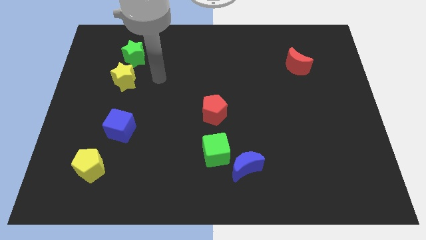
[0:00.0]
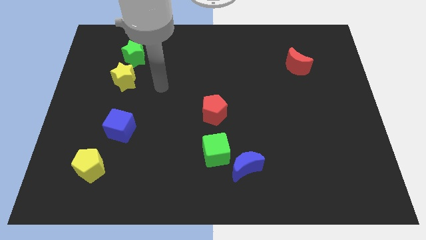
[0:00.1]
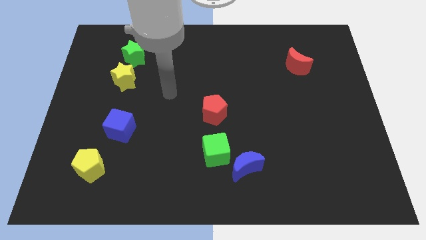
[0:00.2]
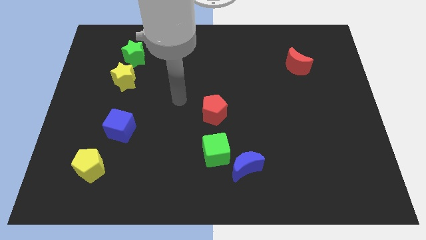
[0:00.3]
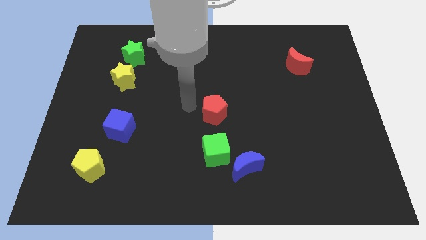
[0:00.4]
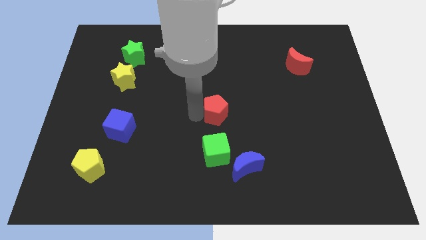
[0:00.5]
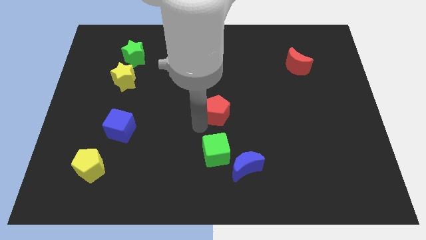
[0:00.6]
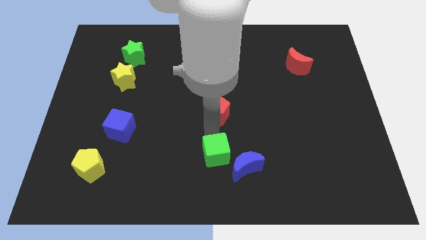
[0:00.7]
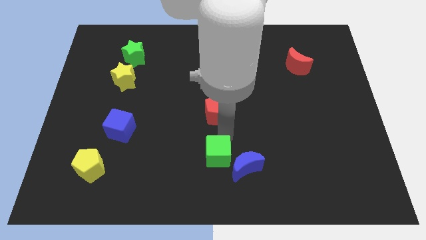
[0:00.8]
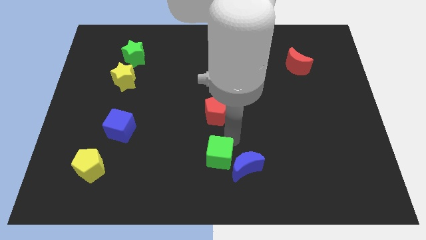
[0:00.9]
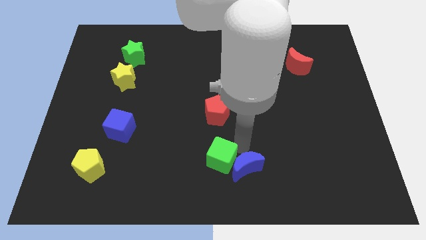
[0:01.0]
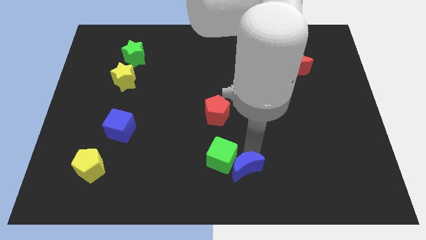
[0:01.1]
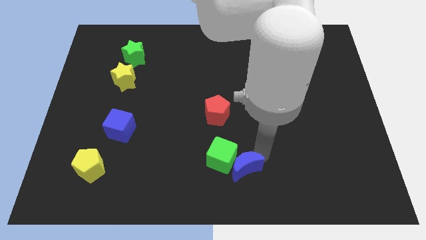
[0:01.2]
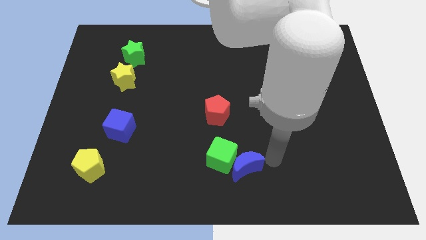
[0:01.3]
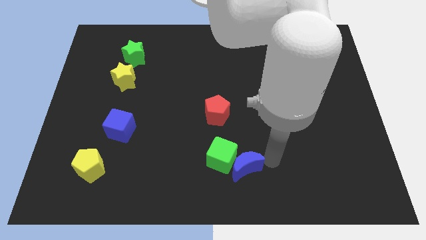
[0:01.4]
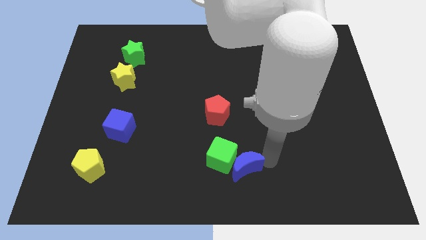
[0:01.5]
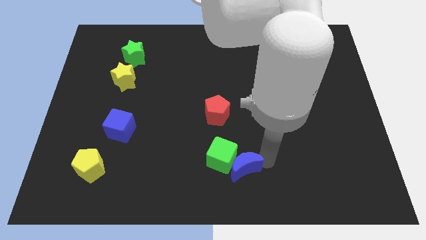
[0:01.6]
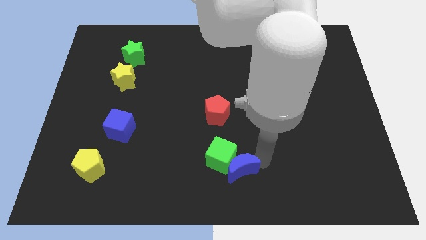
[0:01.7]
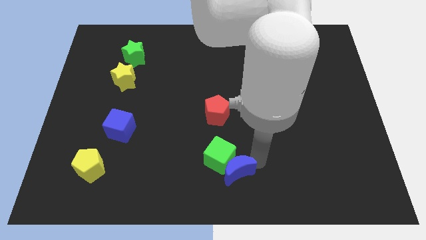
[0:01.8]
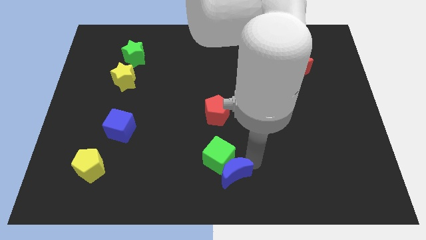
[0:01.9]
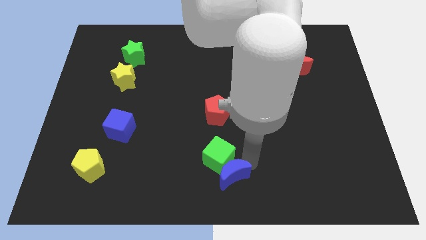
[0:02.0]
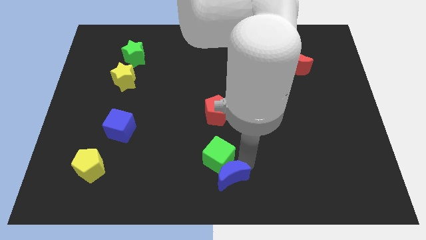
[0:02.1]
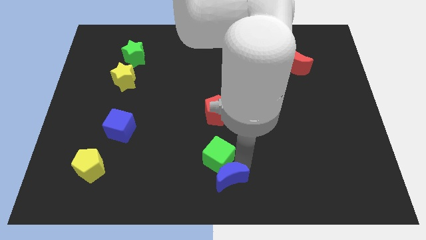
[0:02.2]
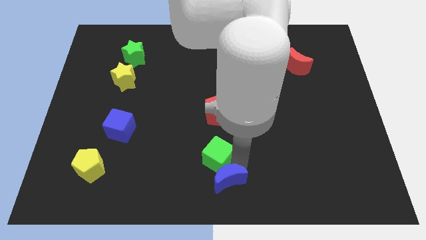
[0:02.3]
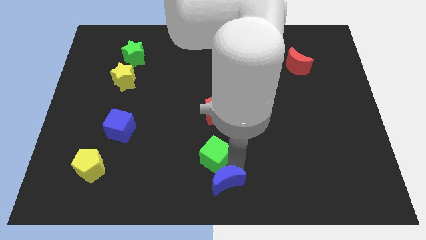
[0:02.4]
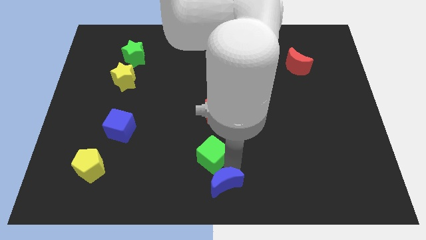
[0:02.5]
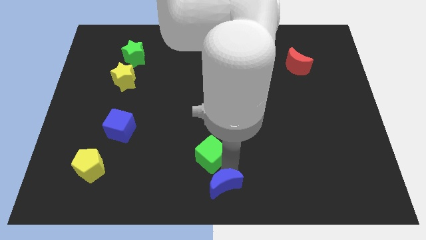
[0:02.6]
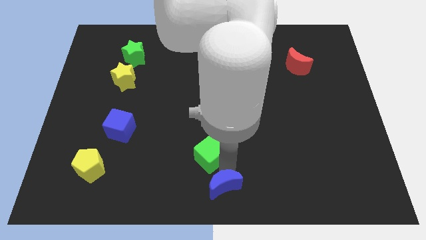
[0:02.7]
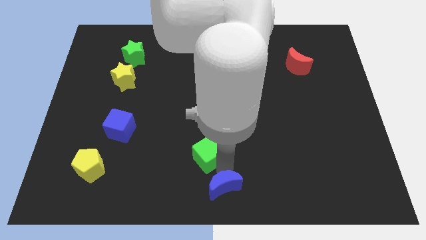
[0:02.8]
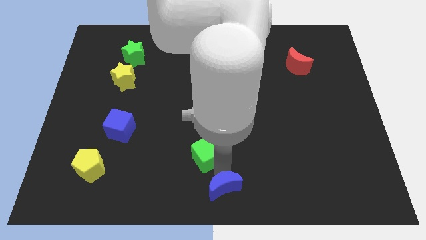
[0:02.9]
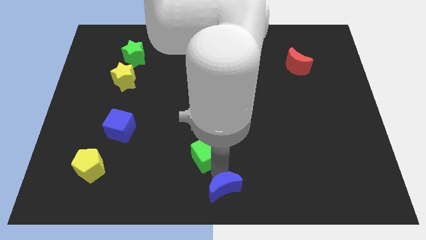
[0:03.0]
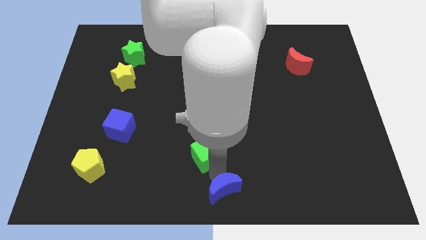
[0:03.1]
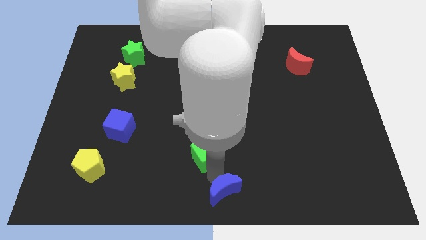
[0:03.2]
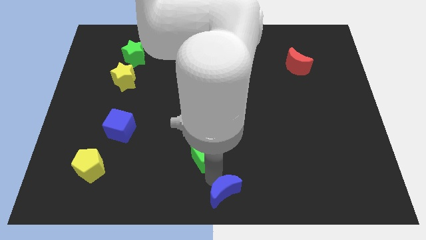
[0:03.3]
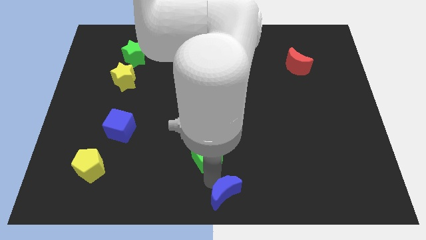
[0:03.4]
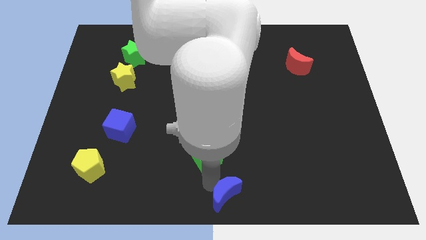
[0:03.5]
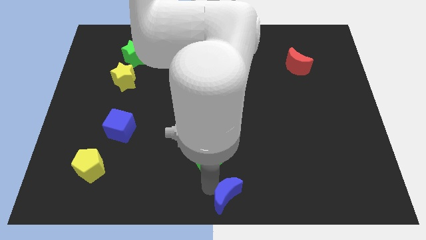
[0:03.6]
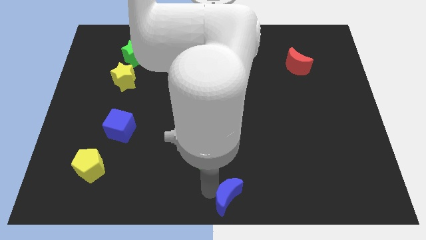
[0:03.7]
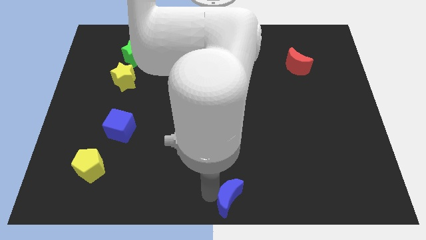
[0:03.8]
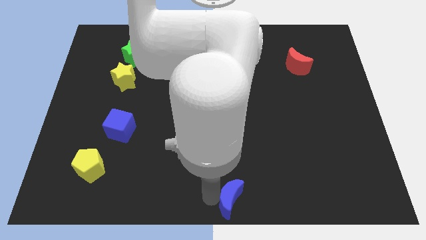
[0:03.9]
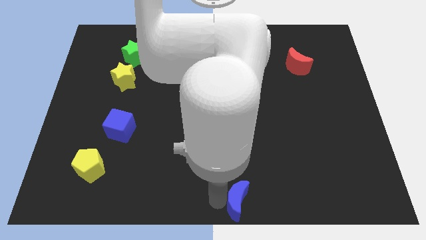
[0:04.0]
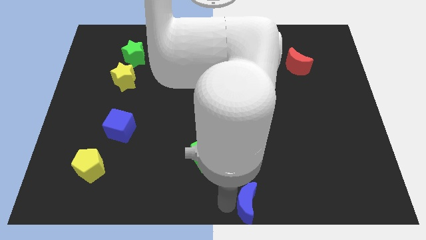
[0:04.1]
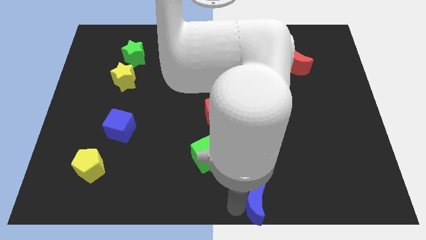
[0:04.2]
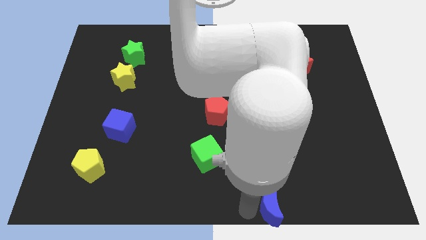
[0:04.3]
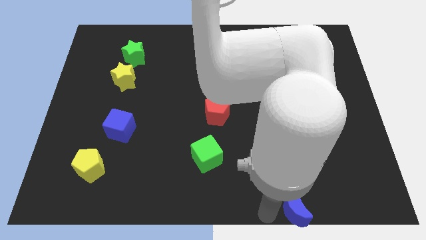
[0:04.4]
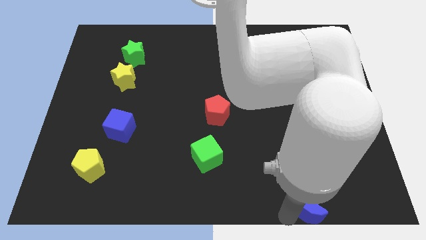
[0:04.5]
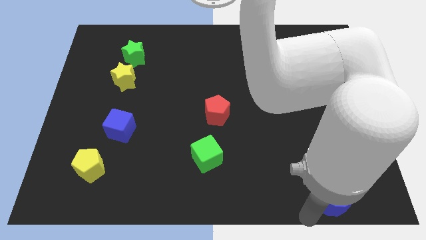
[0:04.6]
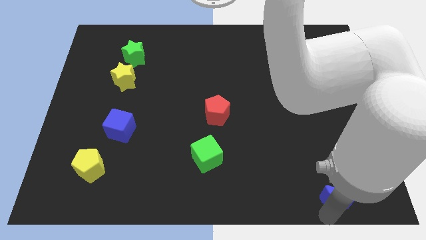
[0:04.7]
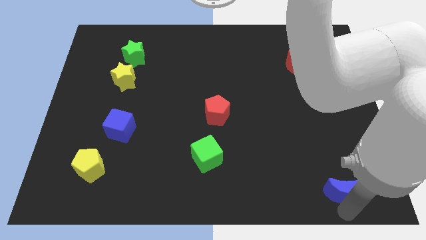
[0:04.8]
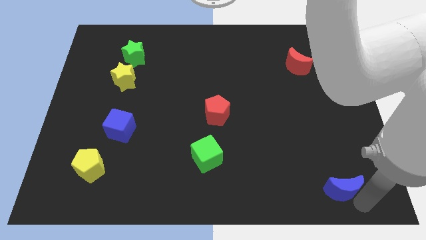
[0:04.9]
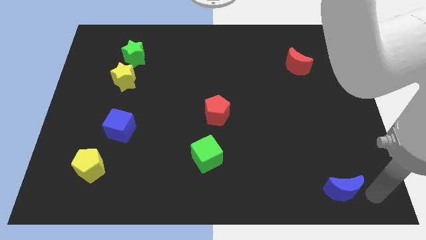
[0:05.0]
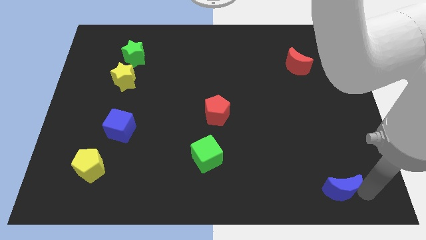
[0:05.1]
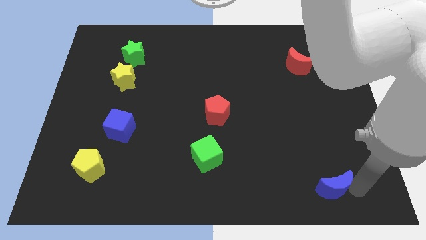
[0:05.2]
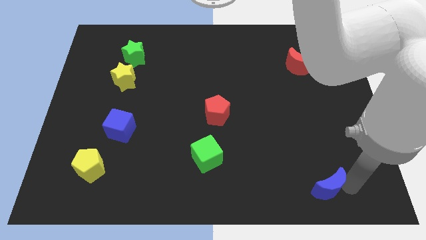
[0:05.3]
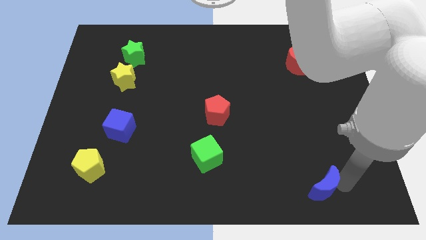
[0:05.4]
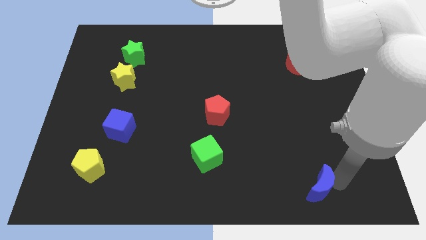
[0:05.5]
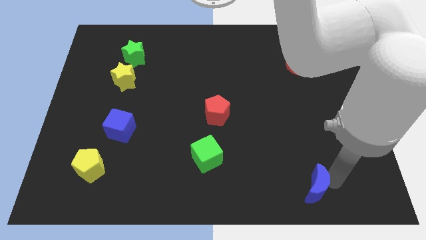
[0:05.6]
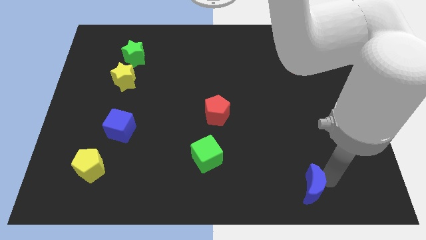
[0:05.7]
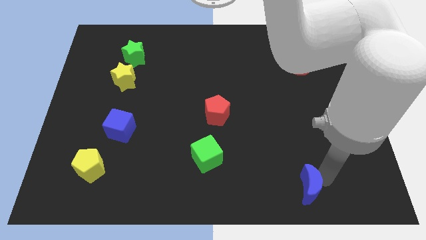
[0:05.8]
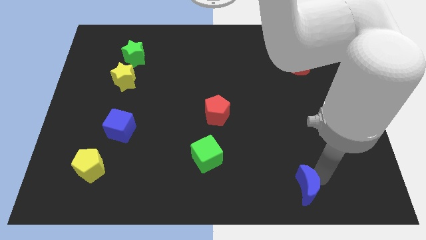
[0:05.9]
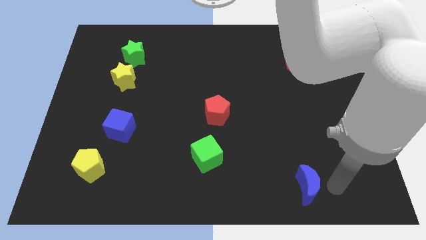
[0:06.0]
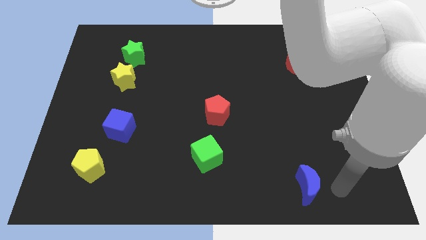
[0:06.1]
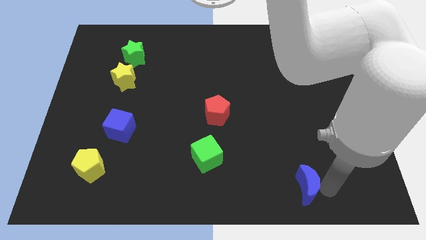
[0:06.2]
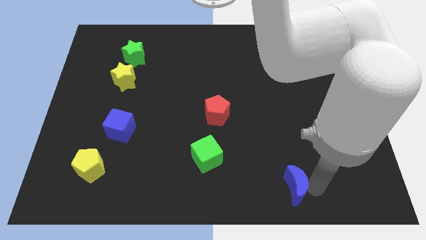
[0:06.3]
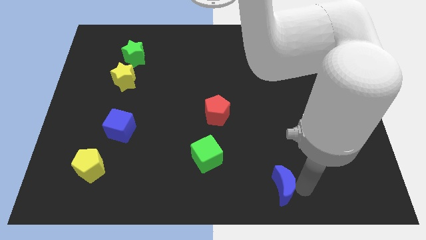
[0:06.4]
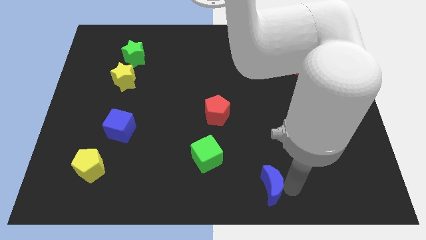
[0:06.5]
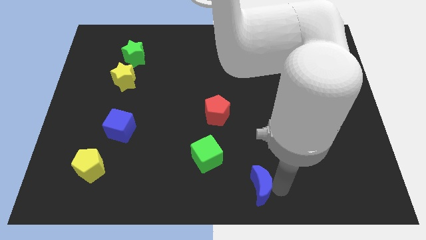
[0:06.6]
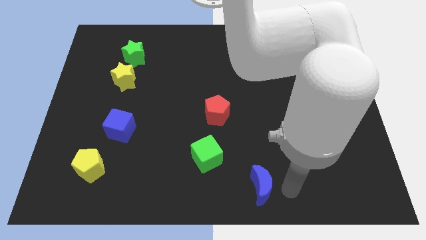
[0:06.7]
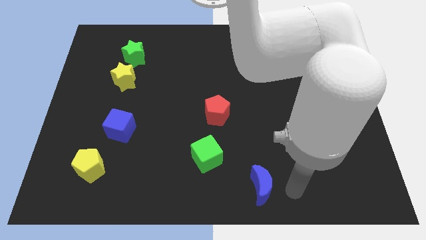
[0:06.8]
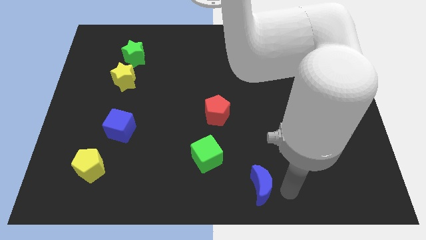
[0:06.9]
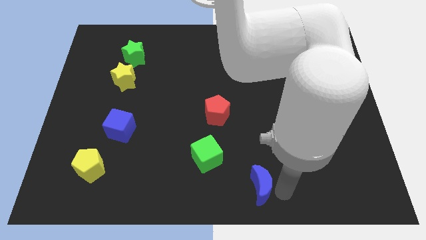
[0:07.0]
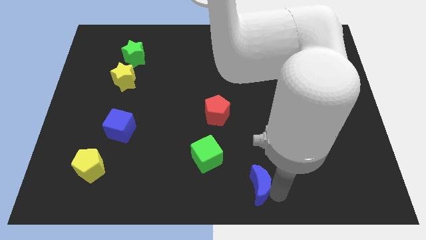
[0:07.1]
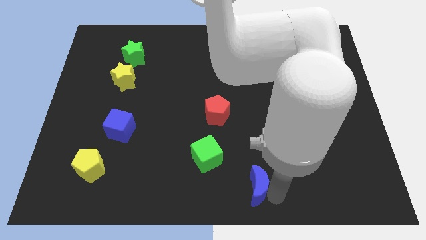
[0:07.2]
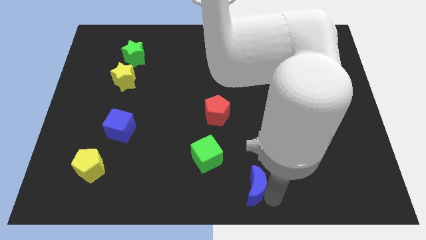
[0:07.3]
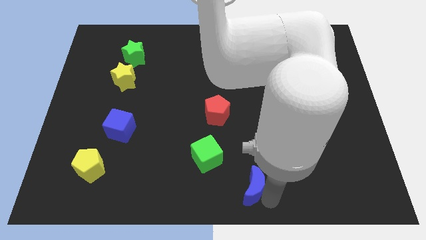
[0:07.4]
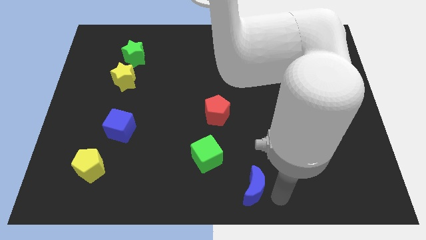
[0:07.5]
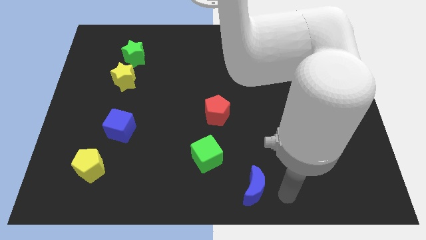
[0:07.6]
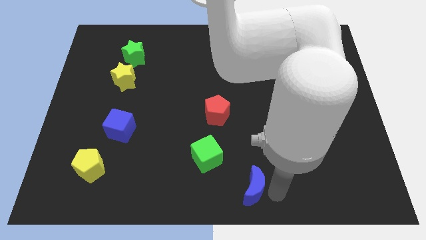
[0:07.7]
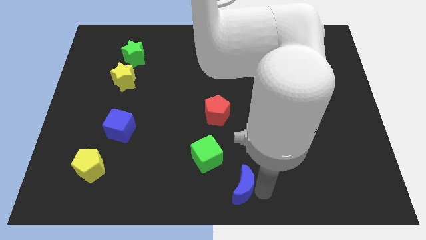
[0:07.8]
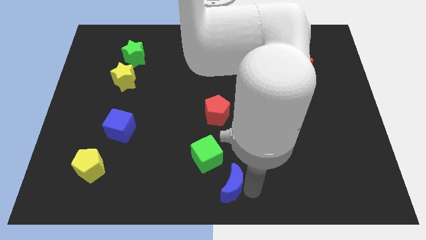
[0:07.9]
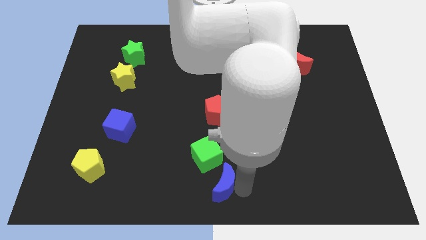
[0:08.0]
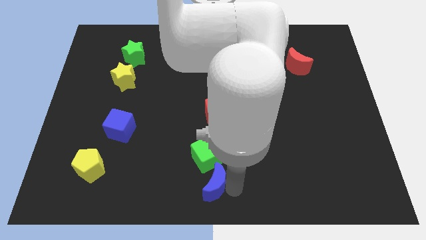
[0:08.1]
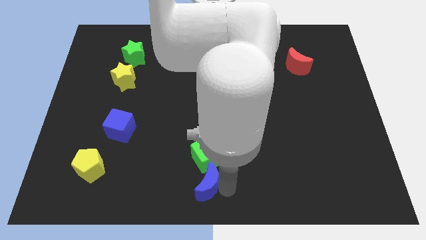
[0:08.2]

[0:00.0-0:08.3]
move the blue moon left a little
